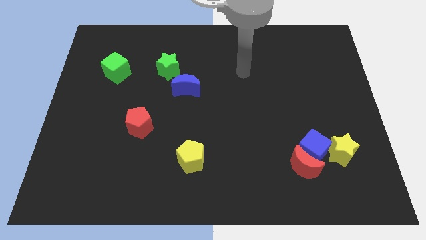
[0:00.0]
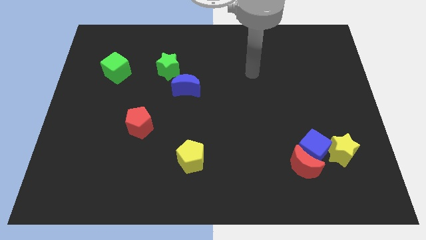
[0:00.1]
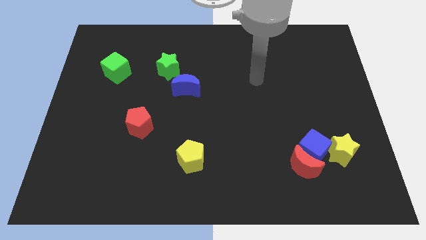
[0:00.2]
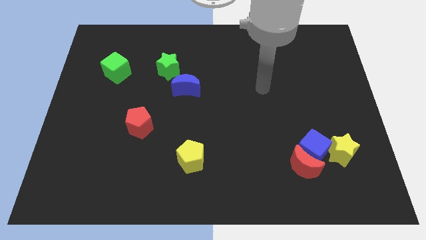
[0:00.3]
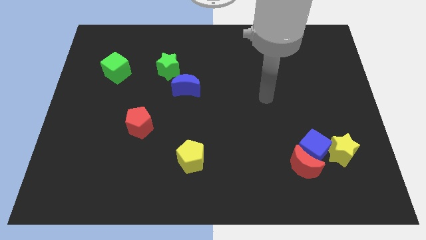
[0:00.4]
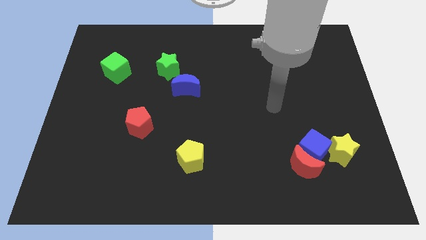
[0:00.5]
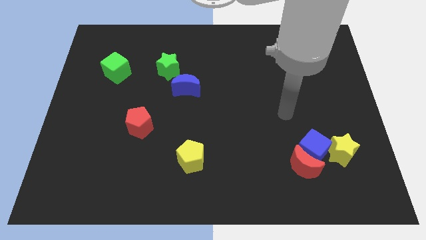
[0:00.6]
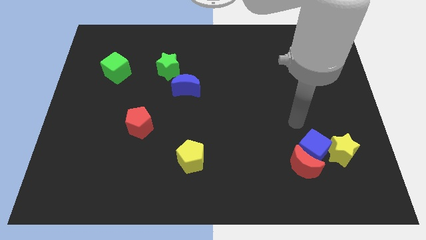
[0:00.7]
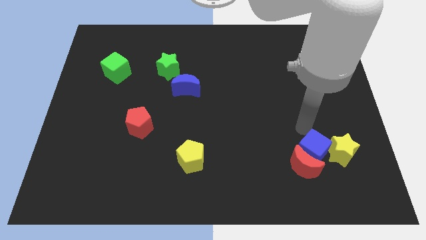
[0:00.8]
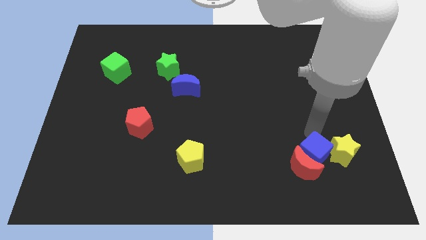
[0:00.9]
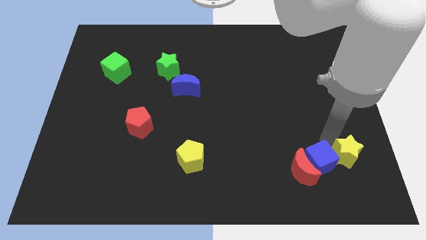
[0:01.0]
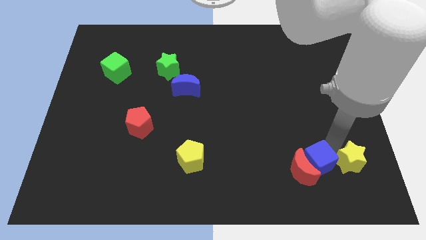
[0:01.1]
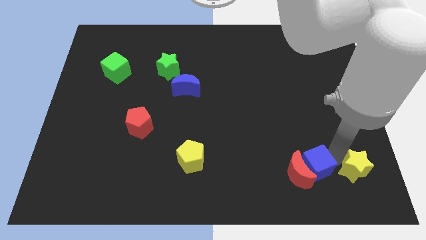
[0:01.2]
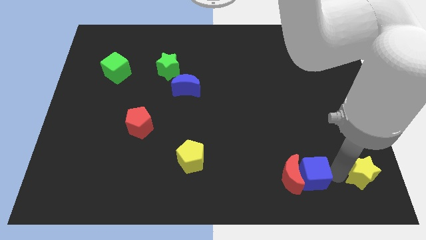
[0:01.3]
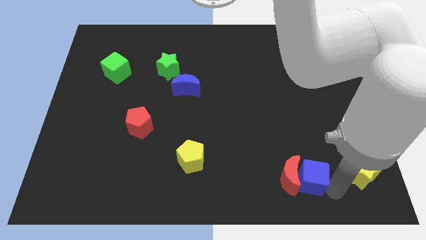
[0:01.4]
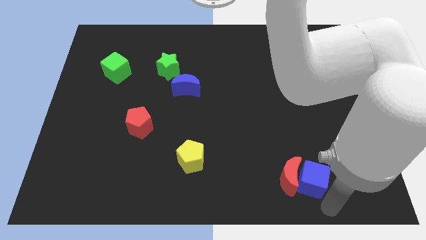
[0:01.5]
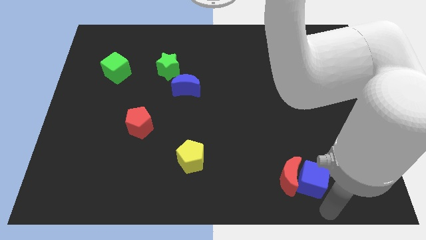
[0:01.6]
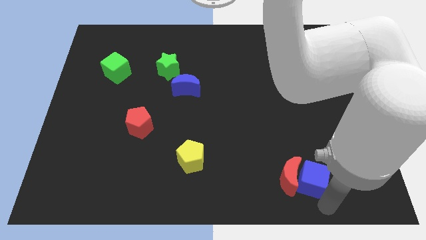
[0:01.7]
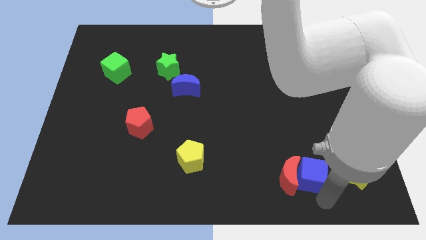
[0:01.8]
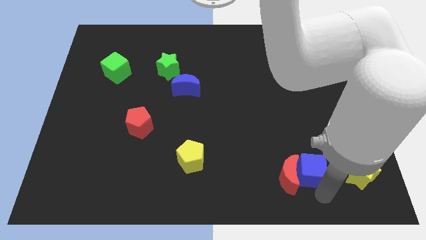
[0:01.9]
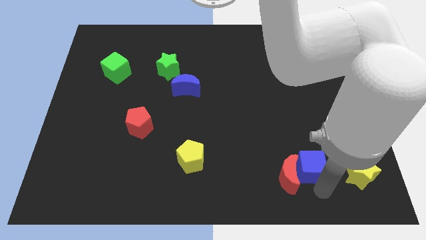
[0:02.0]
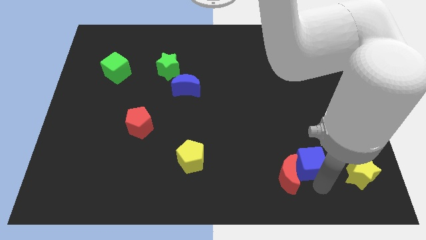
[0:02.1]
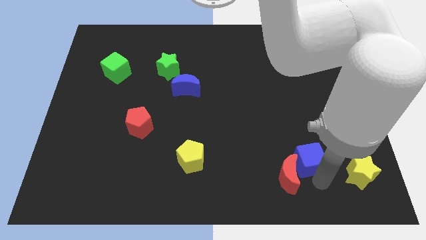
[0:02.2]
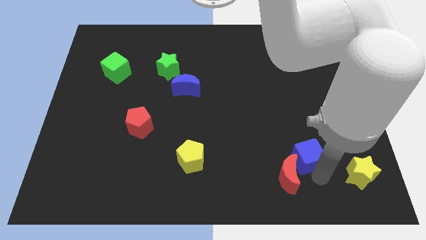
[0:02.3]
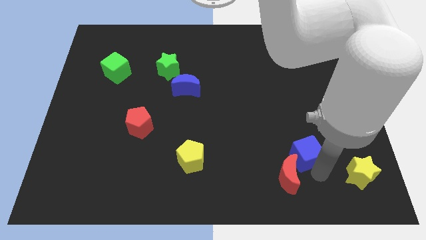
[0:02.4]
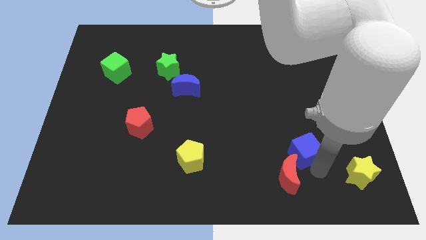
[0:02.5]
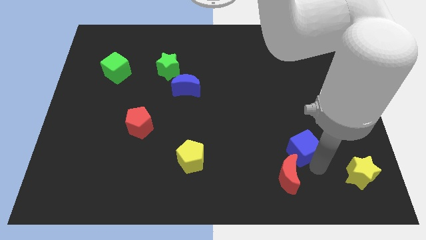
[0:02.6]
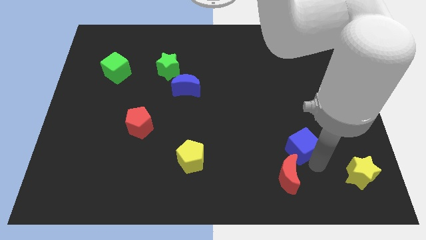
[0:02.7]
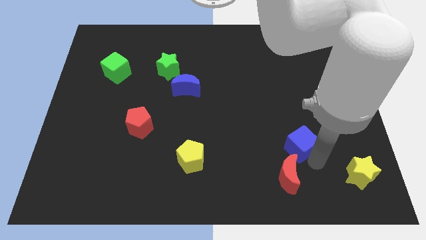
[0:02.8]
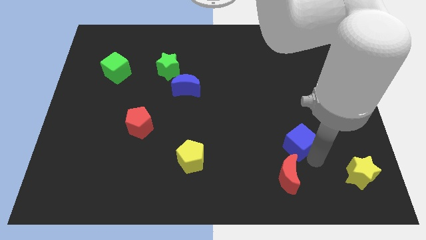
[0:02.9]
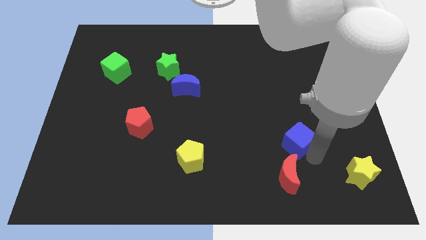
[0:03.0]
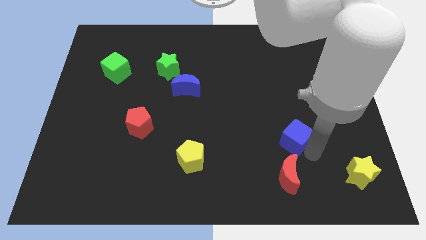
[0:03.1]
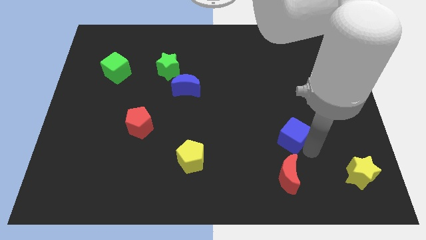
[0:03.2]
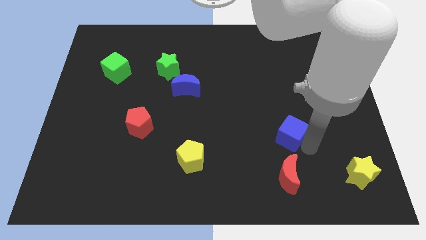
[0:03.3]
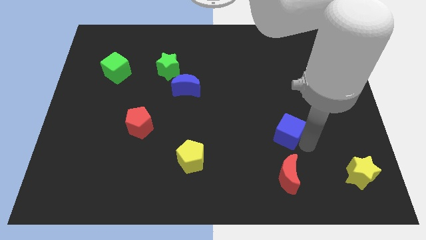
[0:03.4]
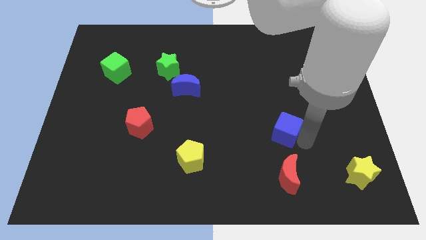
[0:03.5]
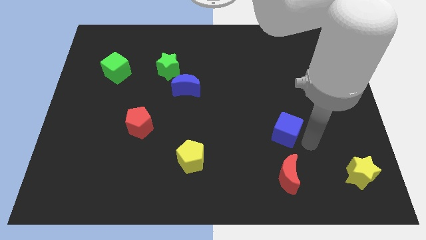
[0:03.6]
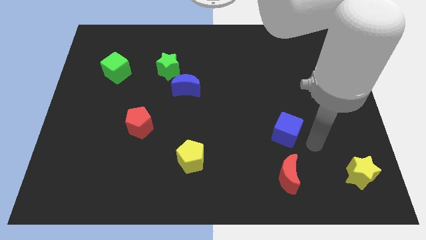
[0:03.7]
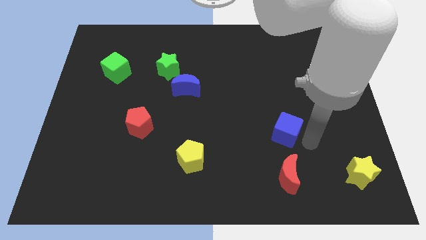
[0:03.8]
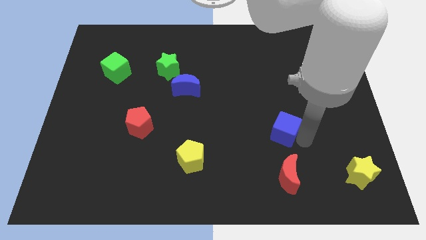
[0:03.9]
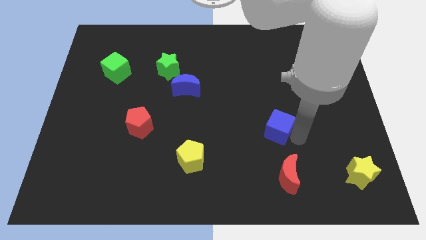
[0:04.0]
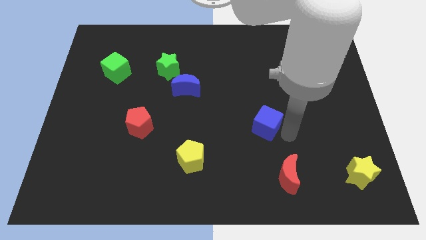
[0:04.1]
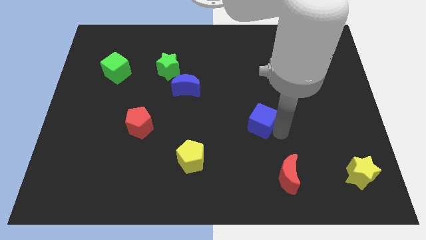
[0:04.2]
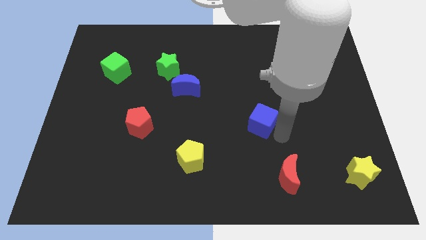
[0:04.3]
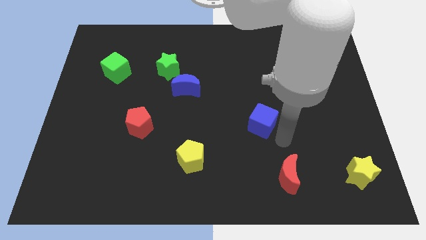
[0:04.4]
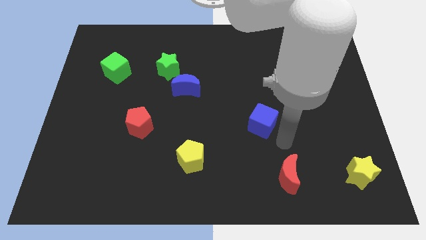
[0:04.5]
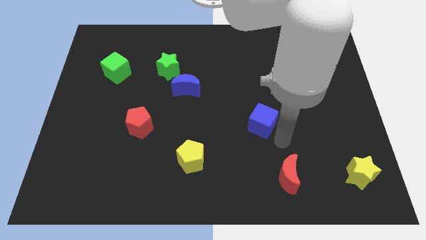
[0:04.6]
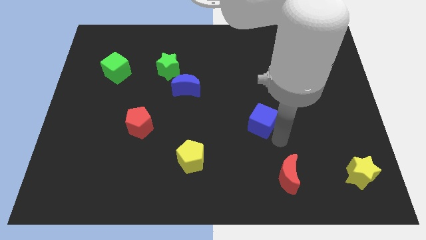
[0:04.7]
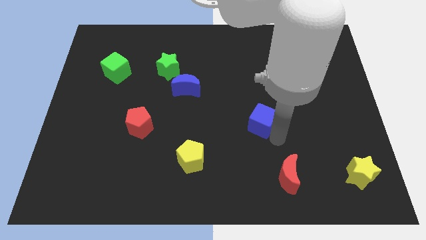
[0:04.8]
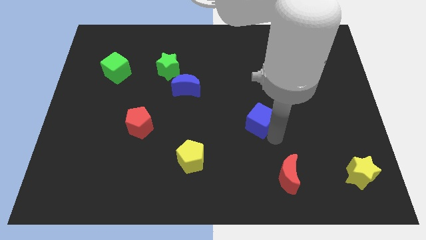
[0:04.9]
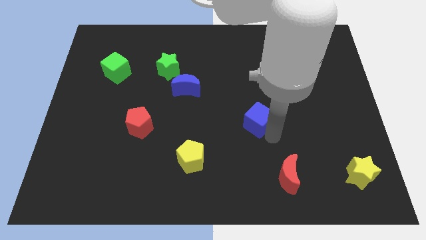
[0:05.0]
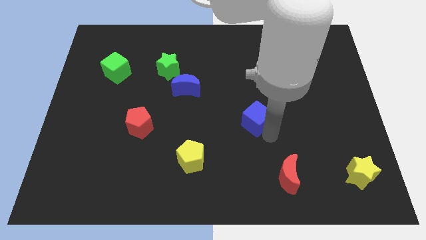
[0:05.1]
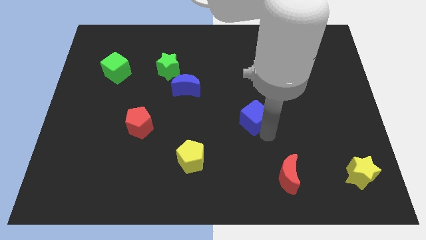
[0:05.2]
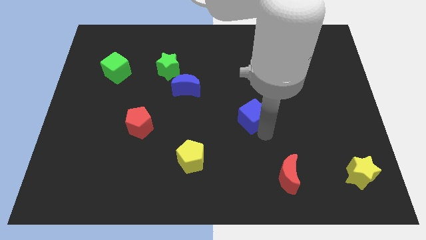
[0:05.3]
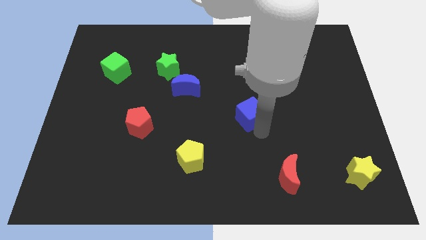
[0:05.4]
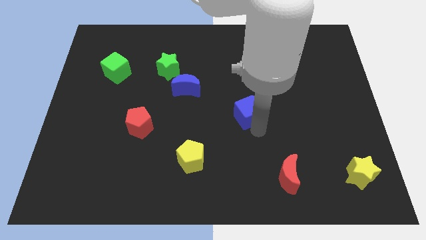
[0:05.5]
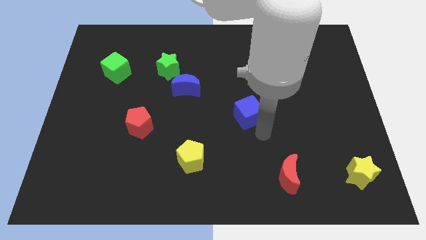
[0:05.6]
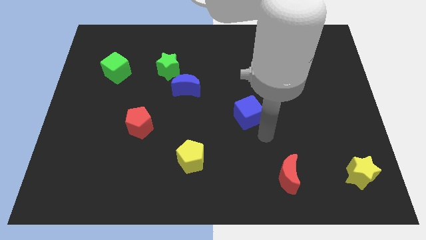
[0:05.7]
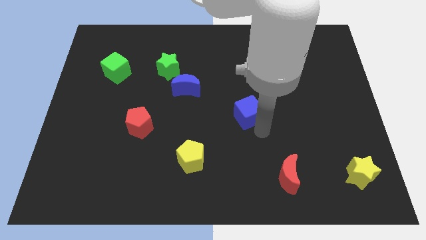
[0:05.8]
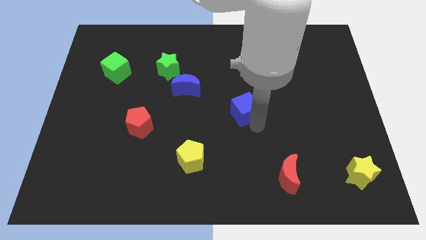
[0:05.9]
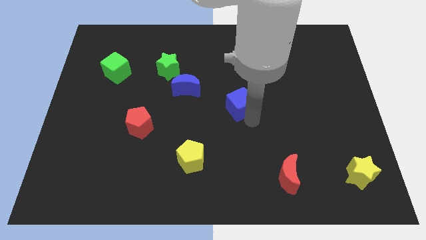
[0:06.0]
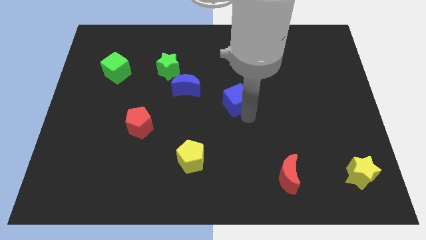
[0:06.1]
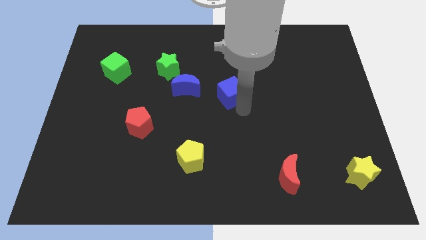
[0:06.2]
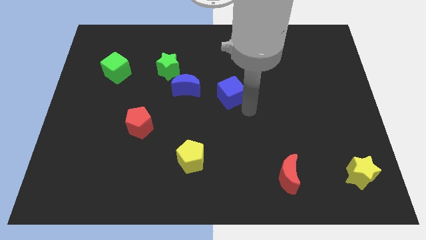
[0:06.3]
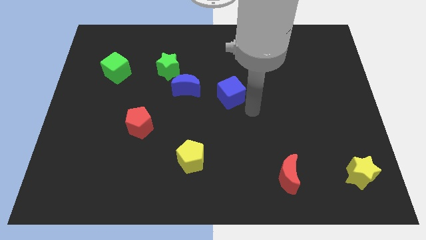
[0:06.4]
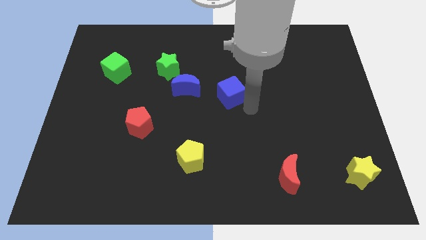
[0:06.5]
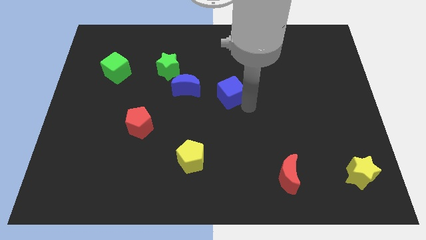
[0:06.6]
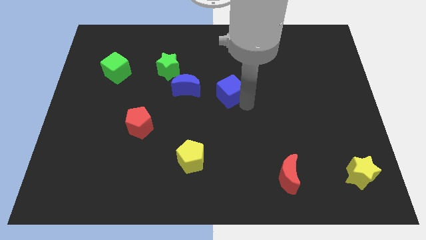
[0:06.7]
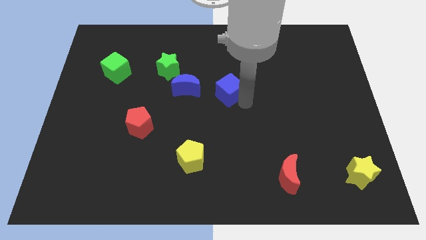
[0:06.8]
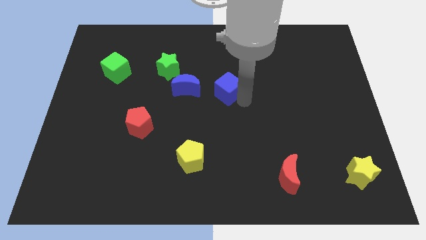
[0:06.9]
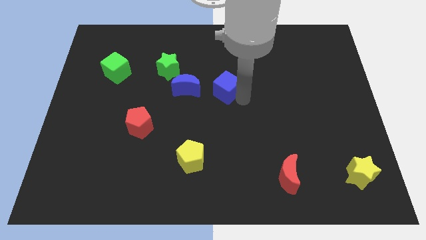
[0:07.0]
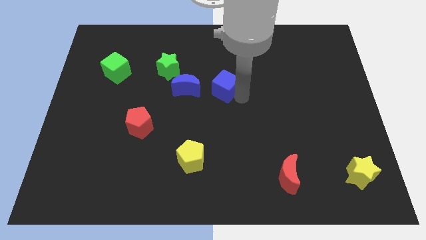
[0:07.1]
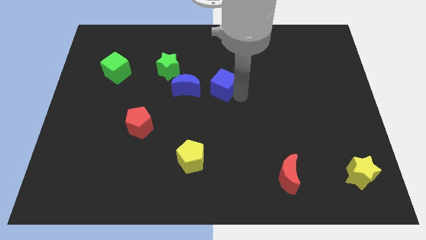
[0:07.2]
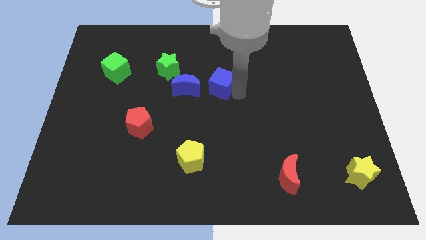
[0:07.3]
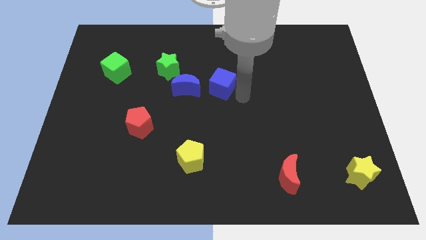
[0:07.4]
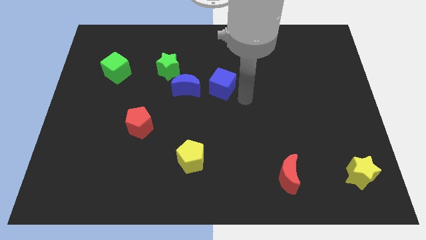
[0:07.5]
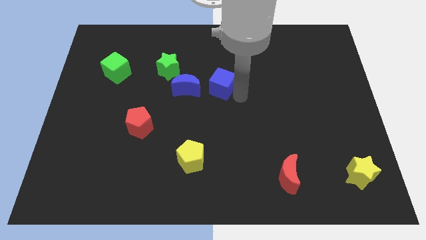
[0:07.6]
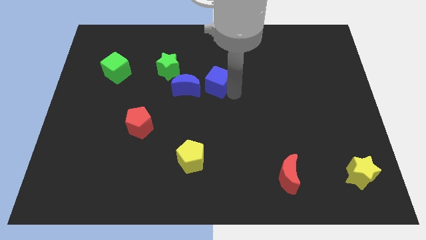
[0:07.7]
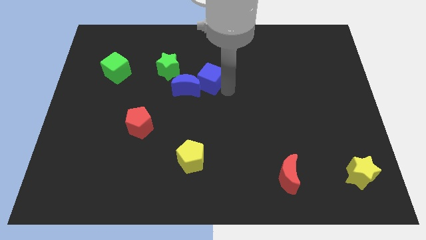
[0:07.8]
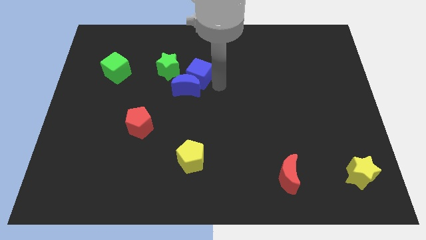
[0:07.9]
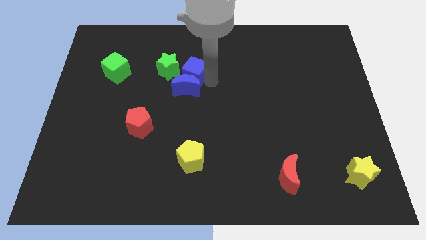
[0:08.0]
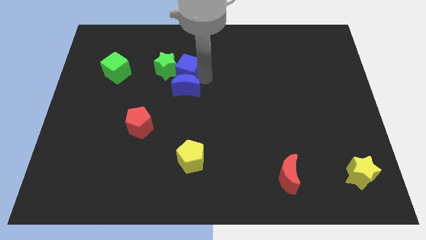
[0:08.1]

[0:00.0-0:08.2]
slide the blue cube next to the green star
